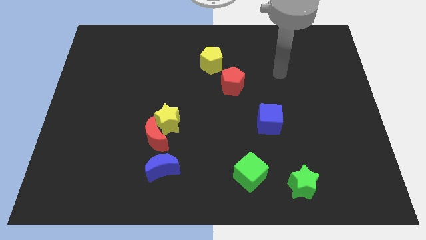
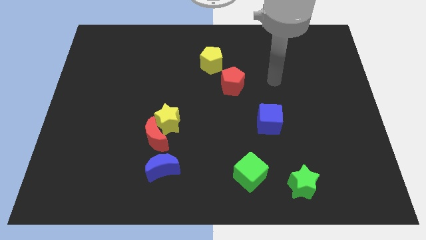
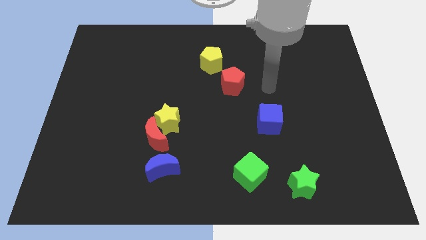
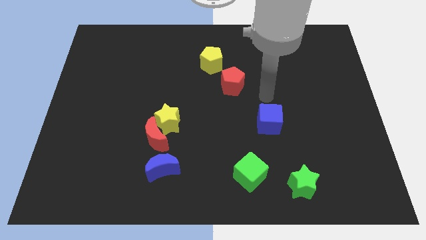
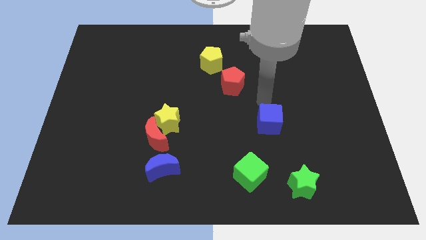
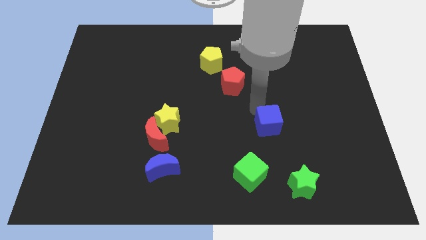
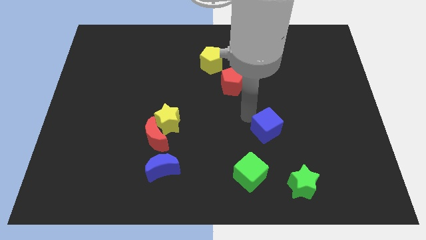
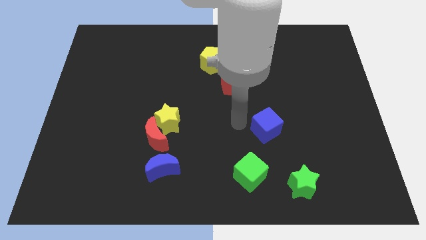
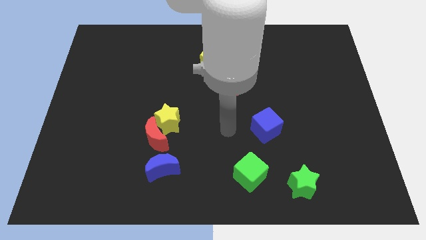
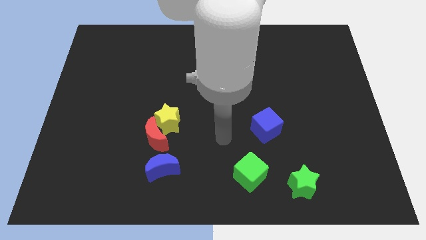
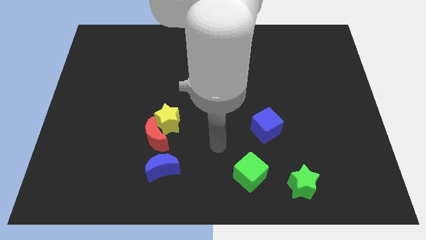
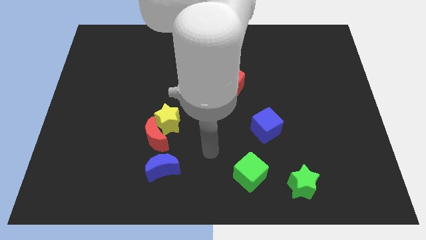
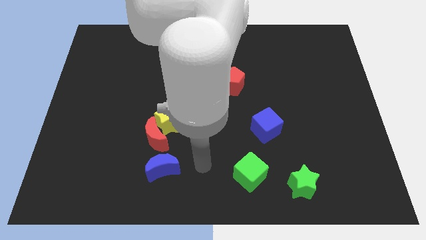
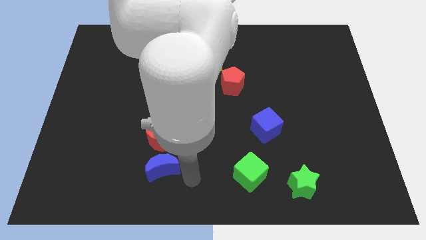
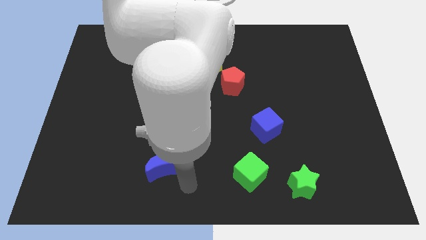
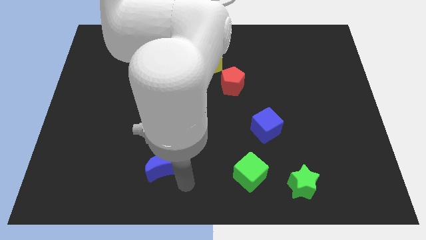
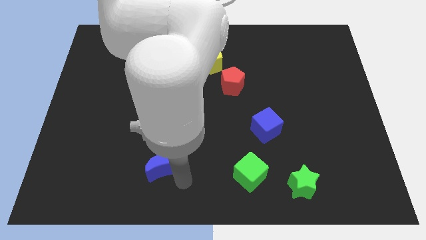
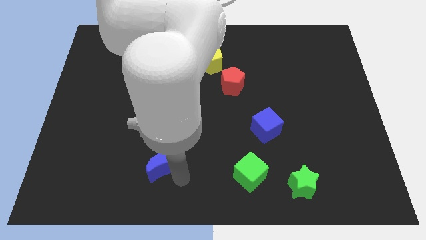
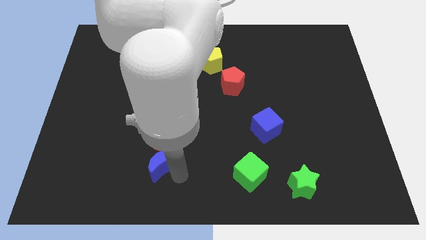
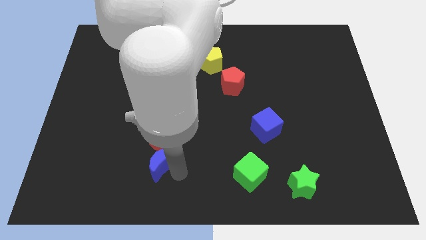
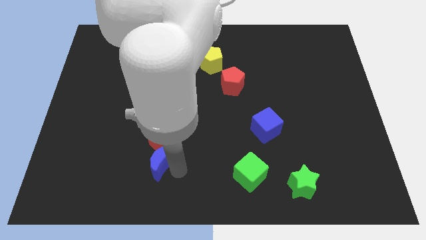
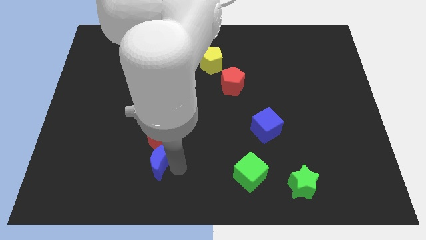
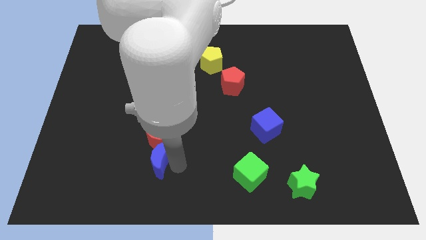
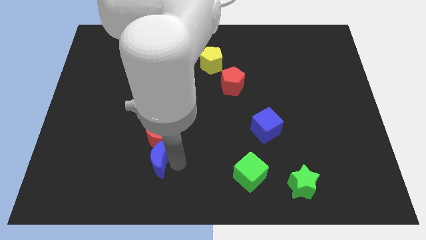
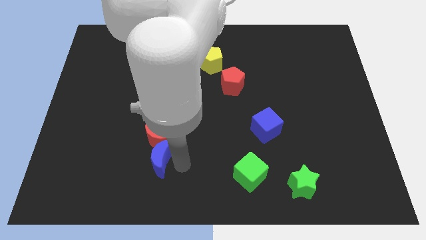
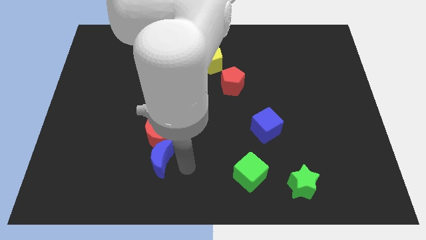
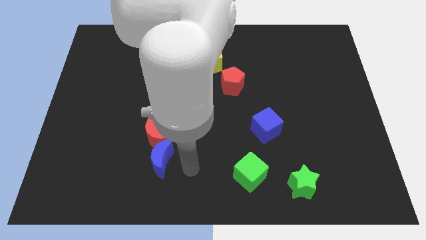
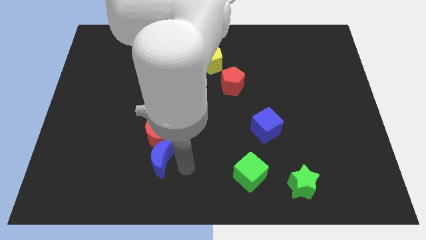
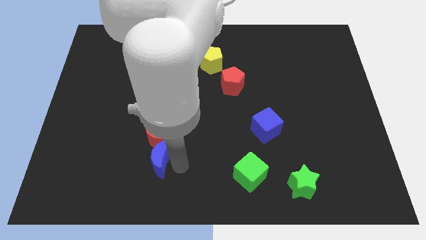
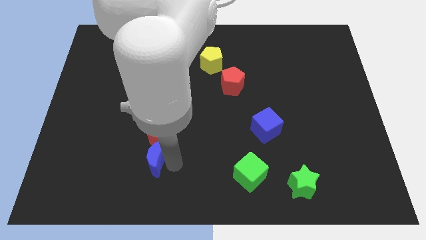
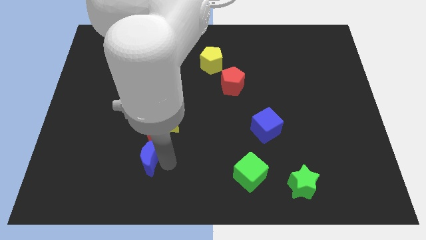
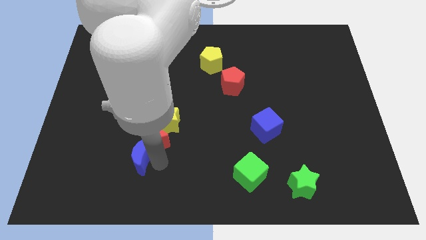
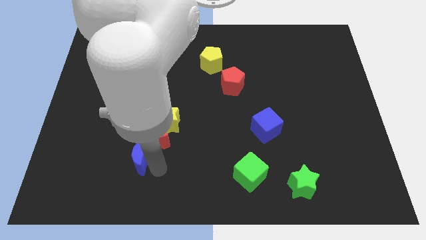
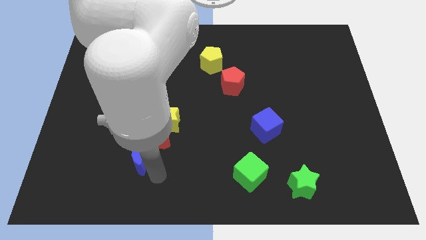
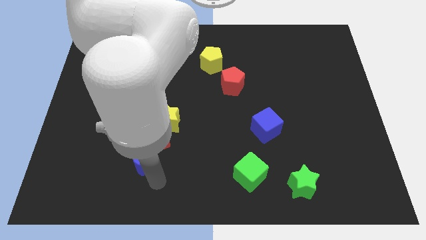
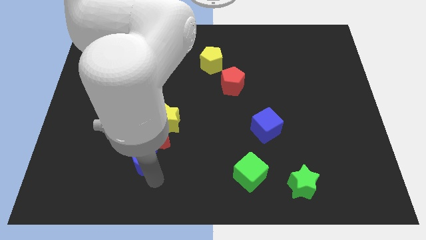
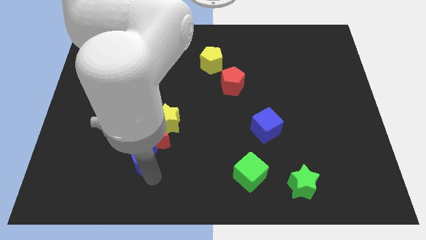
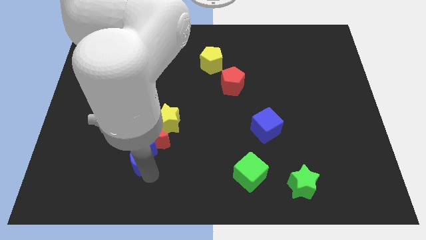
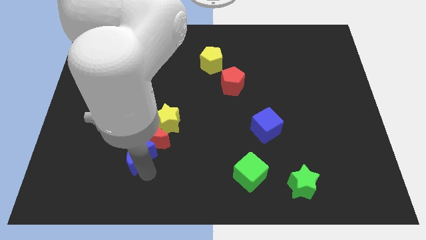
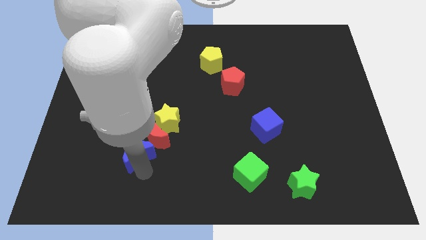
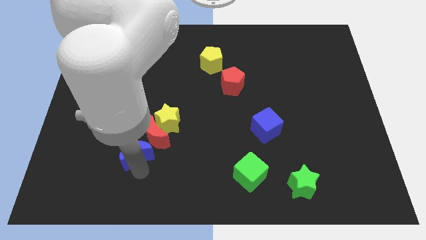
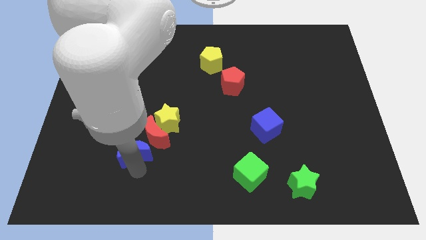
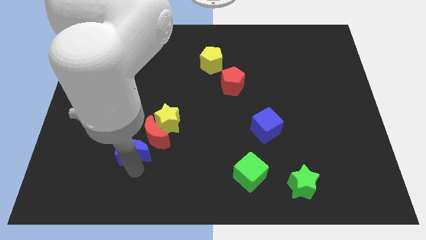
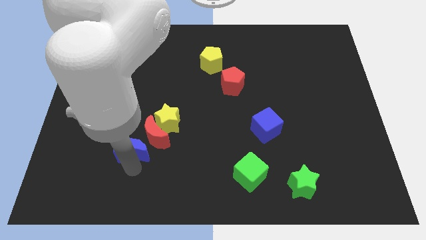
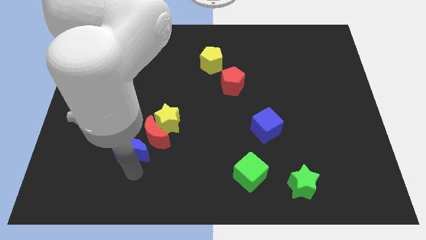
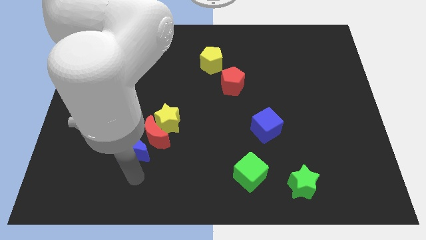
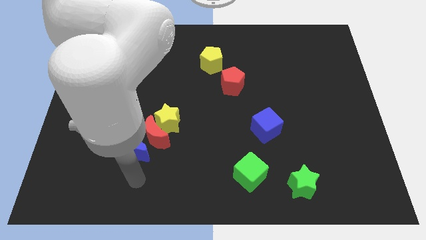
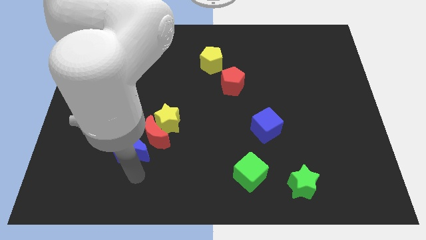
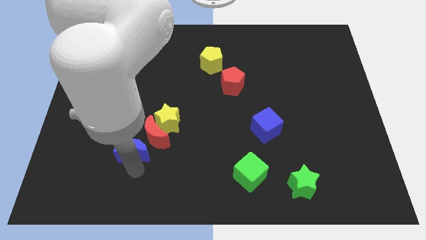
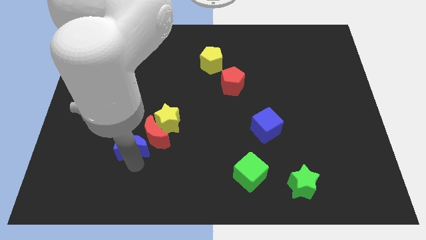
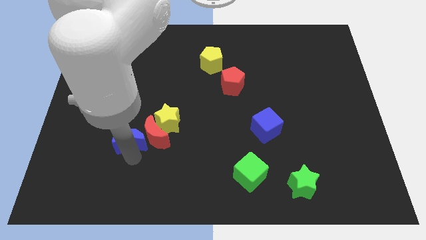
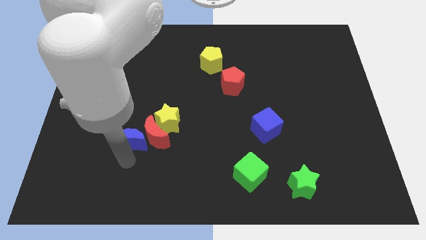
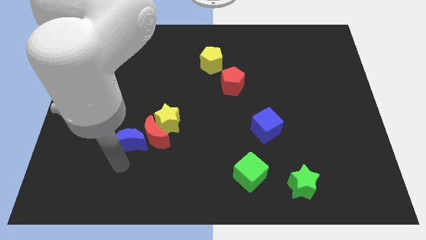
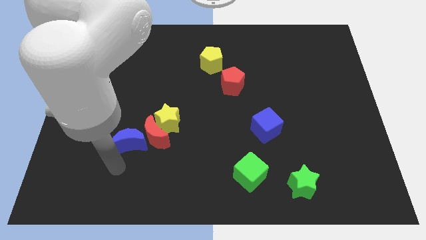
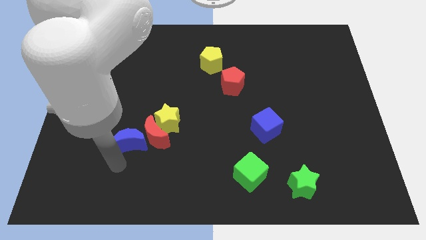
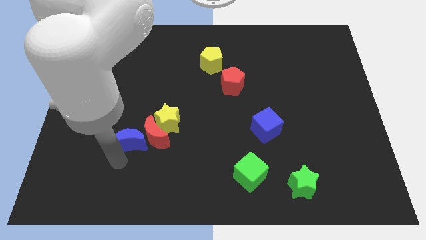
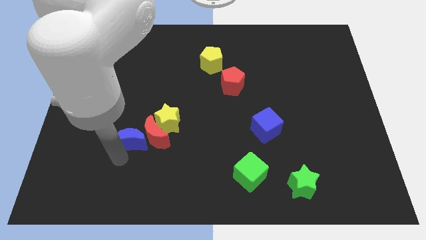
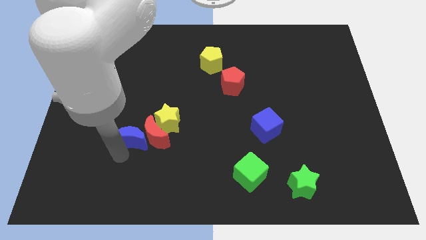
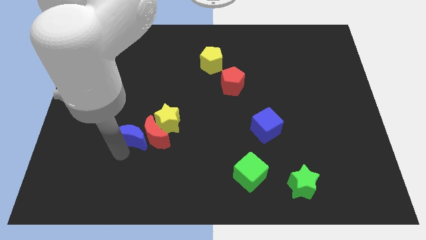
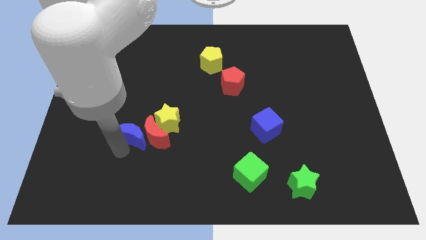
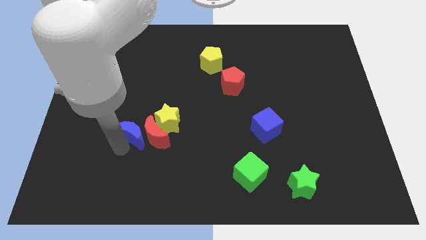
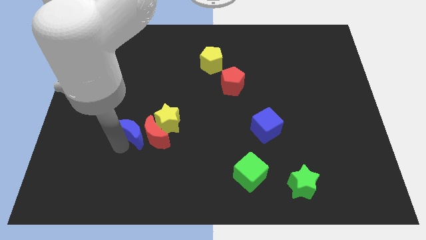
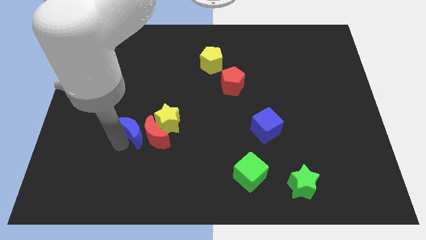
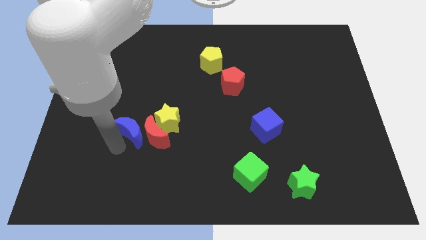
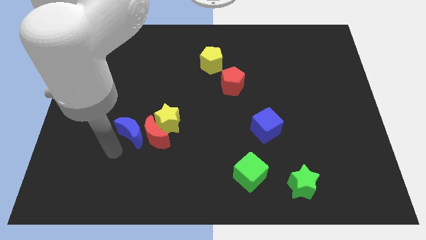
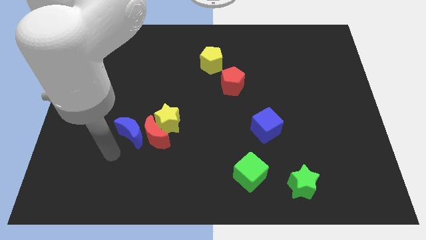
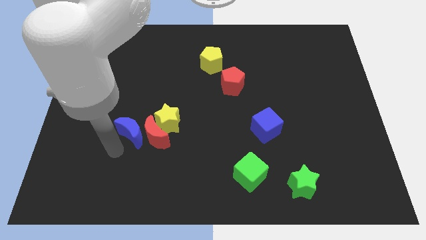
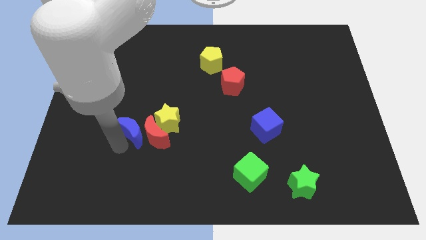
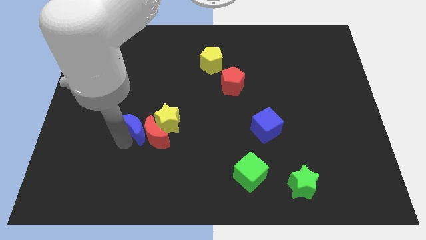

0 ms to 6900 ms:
slightly push the blue moon upwards

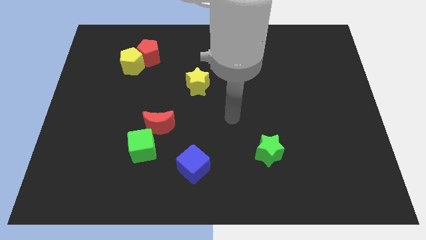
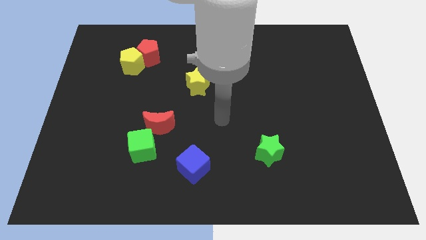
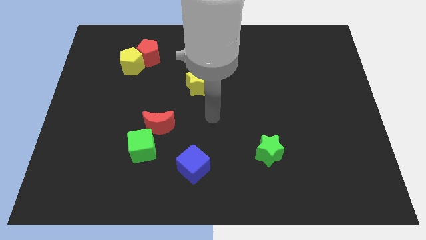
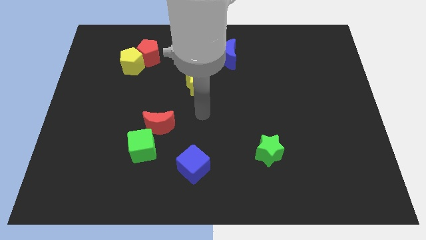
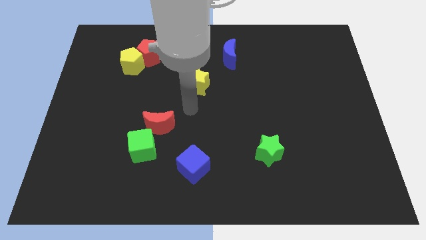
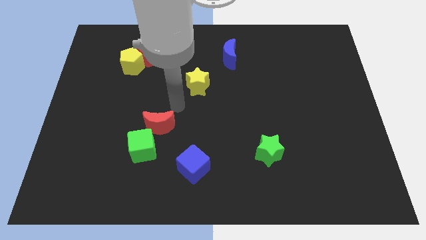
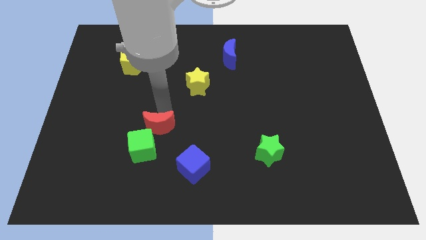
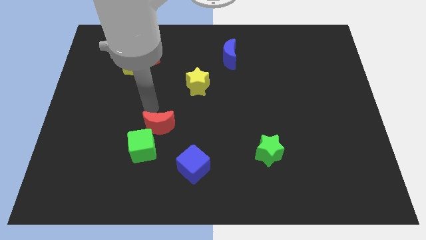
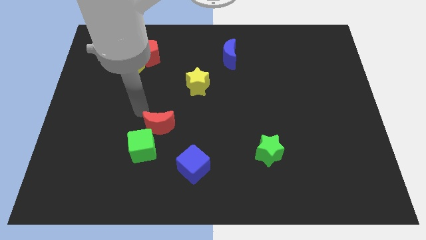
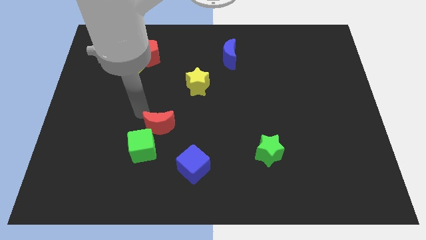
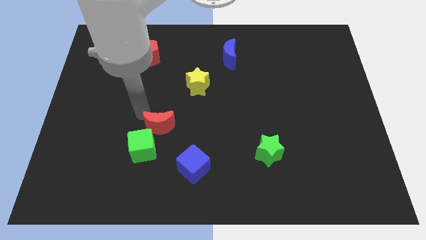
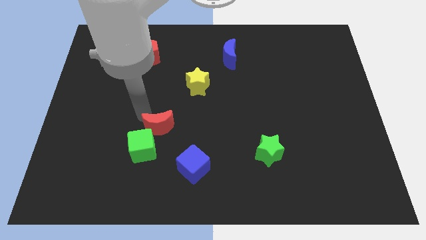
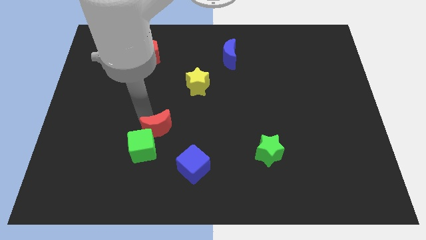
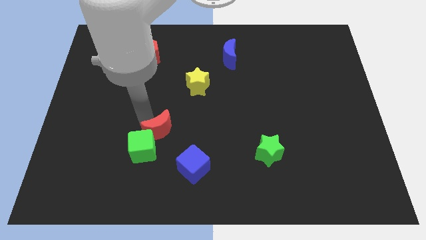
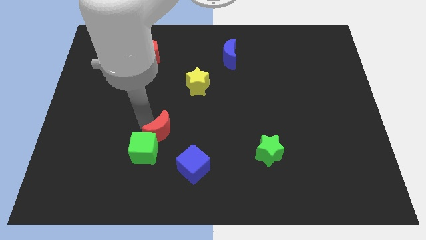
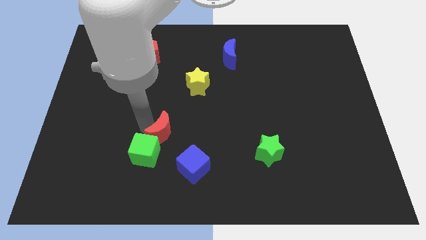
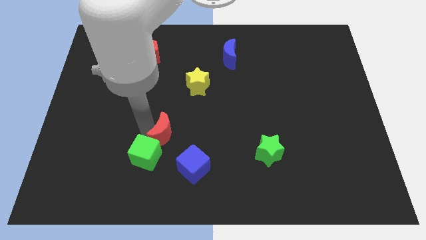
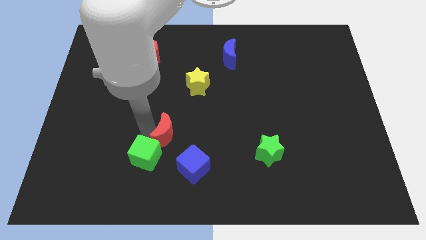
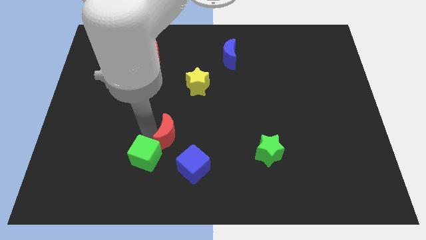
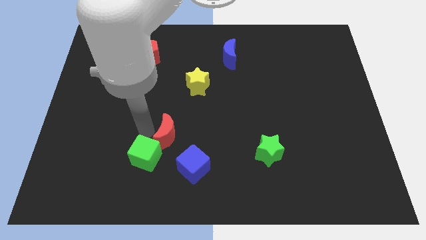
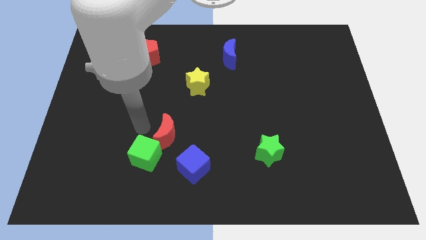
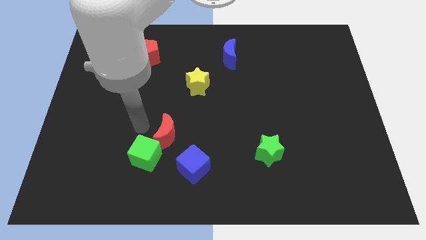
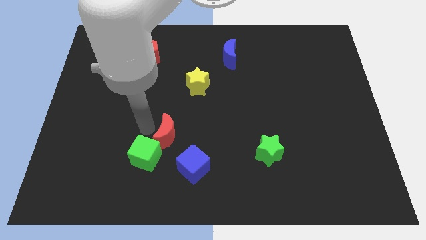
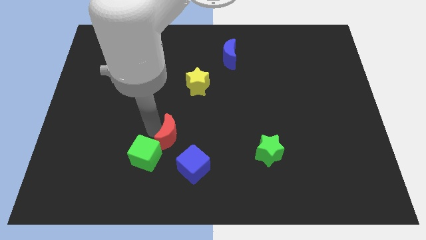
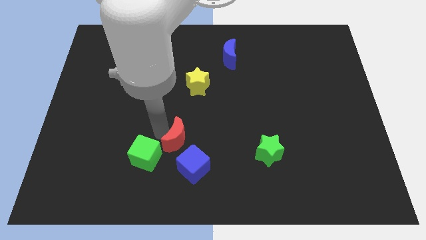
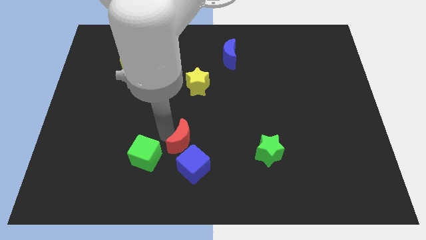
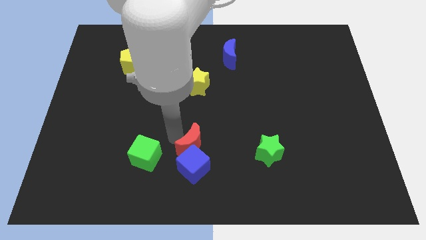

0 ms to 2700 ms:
move the red moon a little downwards and to the right
